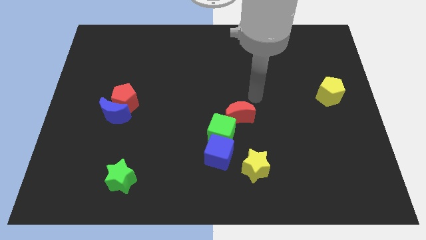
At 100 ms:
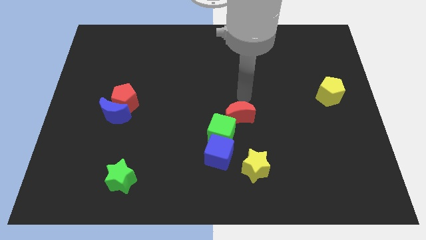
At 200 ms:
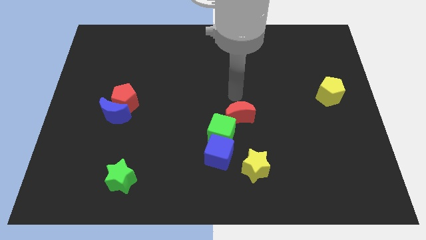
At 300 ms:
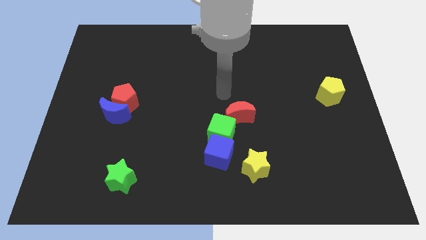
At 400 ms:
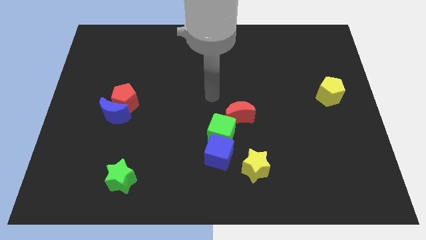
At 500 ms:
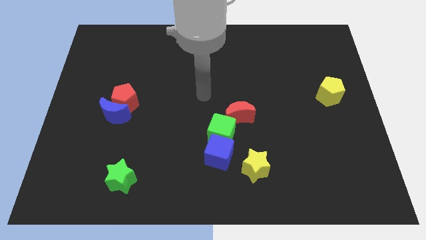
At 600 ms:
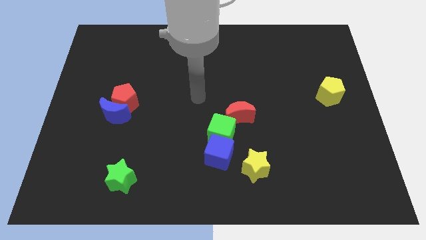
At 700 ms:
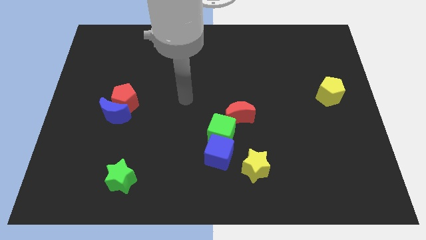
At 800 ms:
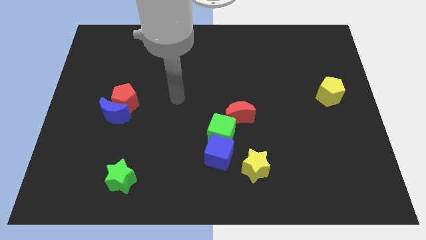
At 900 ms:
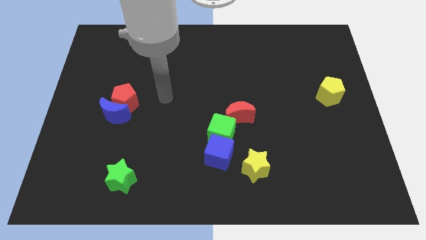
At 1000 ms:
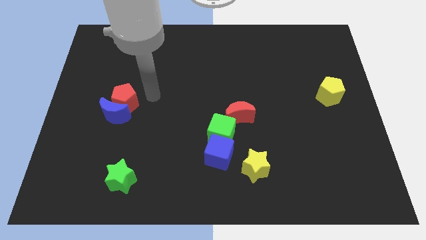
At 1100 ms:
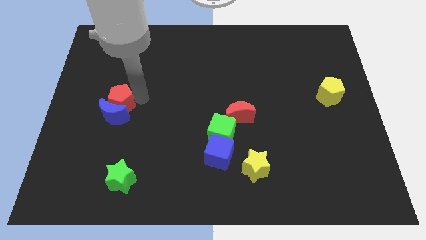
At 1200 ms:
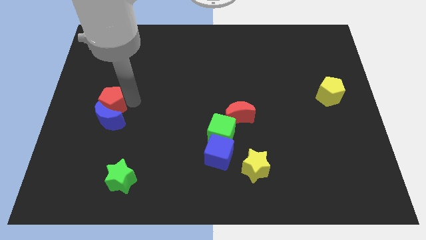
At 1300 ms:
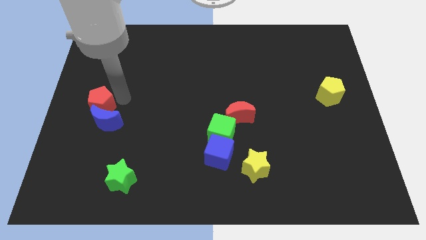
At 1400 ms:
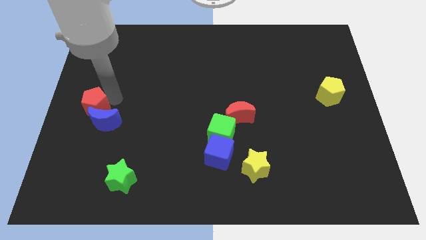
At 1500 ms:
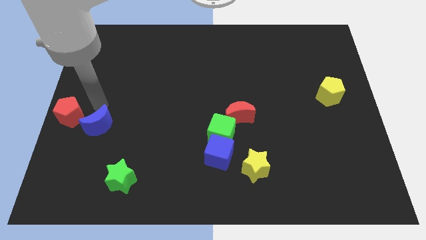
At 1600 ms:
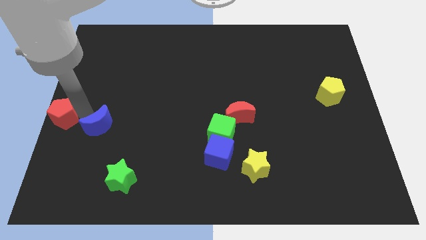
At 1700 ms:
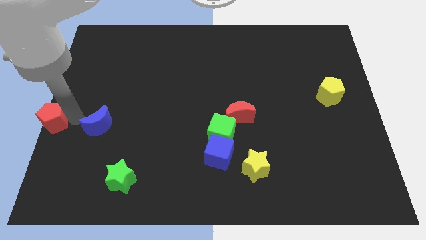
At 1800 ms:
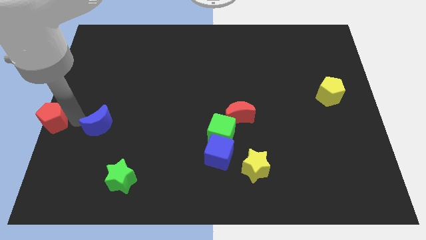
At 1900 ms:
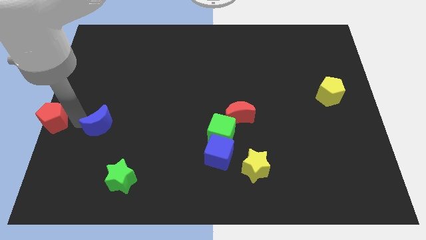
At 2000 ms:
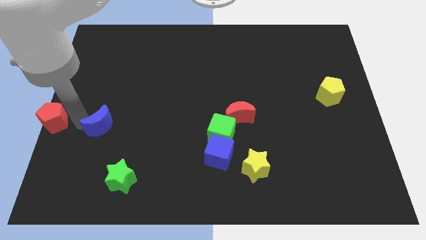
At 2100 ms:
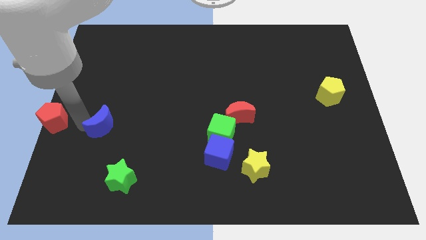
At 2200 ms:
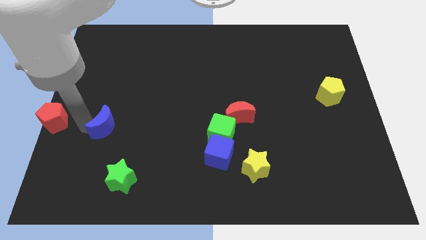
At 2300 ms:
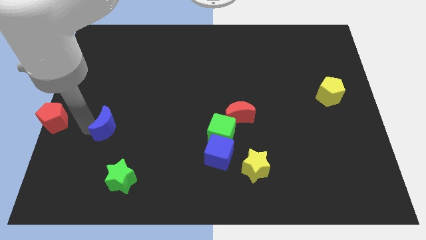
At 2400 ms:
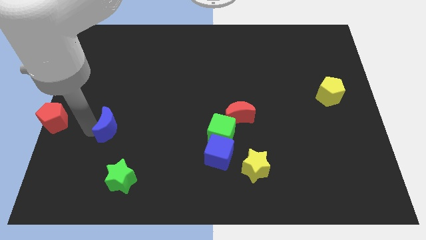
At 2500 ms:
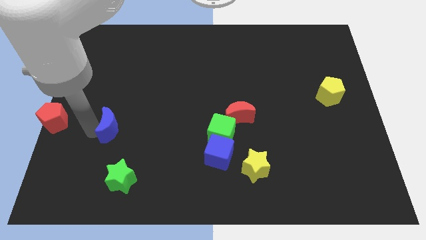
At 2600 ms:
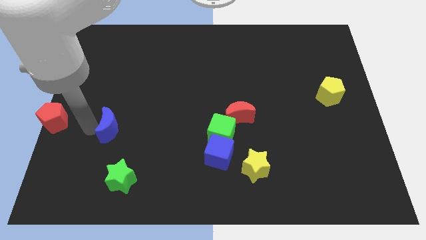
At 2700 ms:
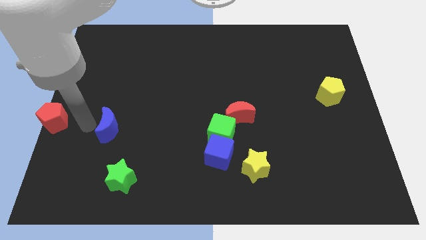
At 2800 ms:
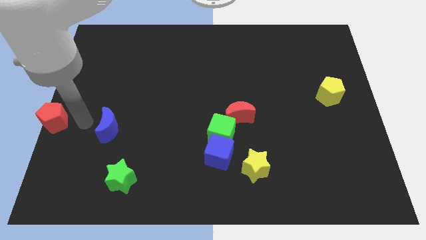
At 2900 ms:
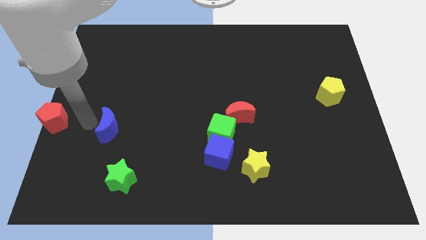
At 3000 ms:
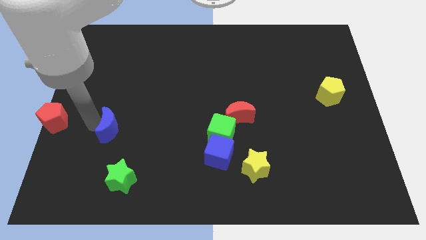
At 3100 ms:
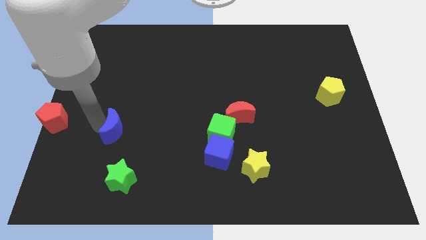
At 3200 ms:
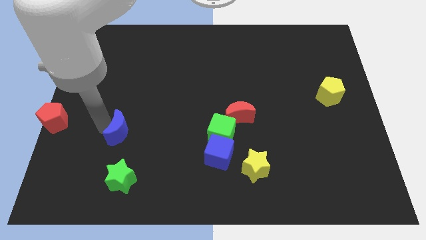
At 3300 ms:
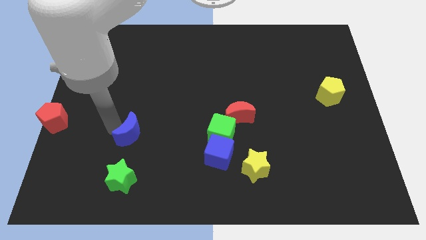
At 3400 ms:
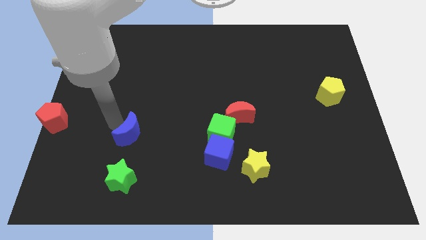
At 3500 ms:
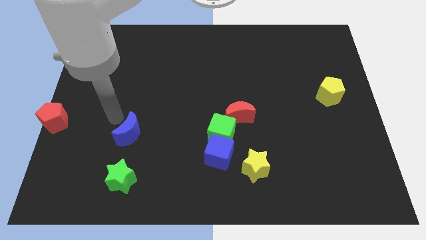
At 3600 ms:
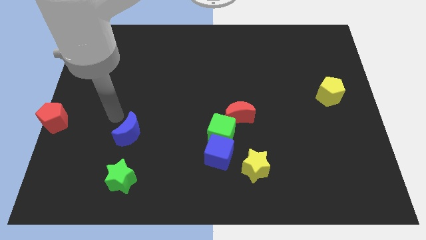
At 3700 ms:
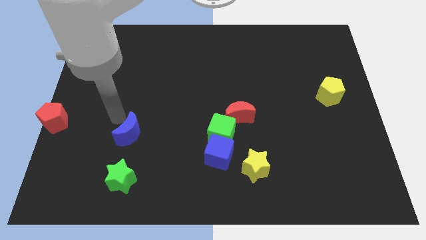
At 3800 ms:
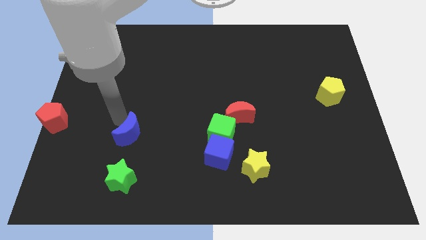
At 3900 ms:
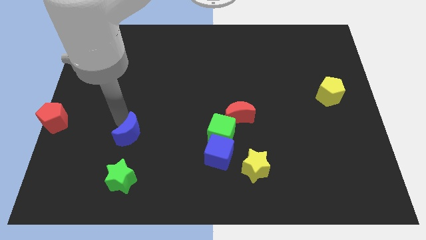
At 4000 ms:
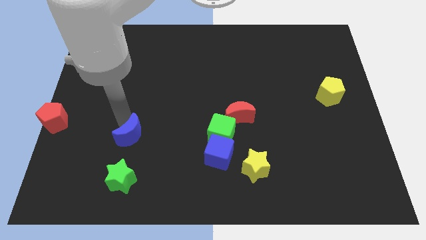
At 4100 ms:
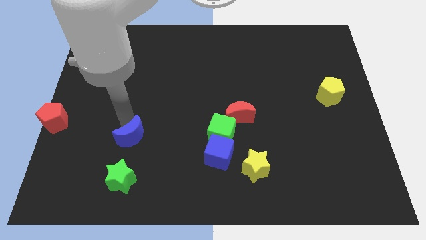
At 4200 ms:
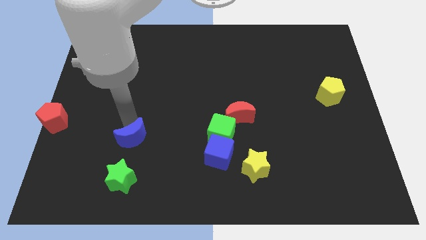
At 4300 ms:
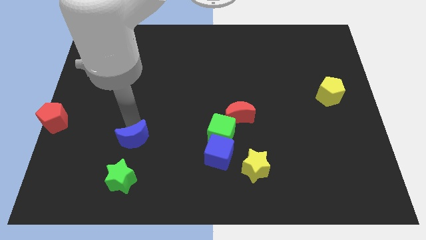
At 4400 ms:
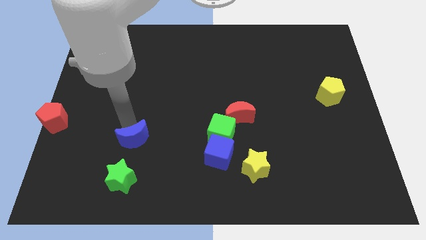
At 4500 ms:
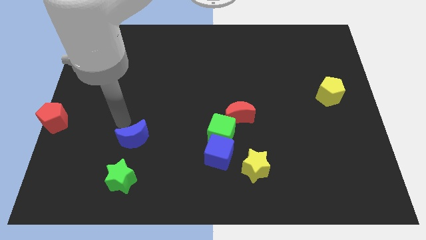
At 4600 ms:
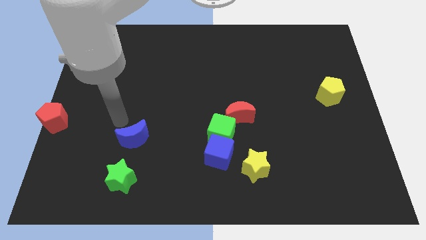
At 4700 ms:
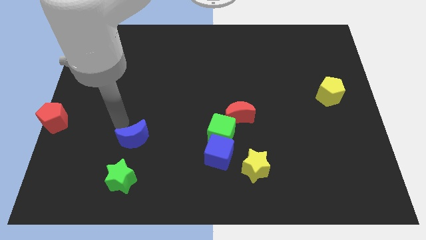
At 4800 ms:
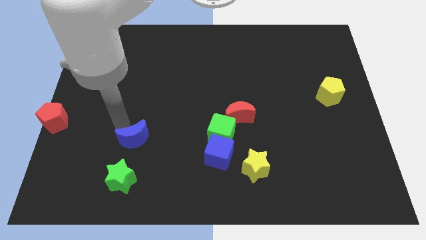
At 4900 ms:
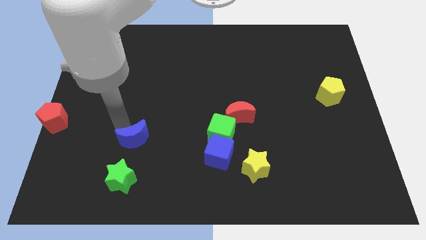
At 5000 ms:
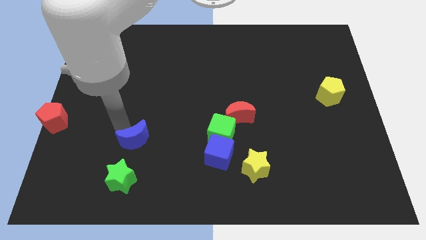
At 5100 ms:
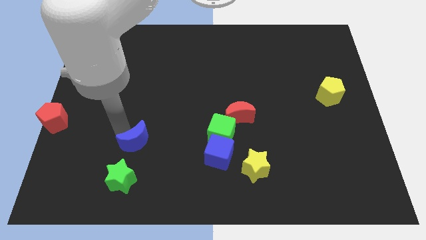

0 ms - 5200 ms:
slide the blue moon diagonally up and to the right of the green star

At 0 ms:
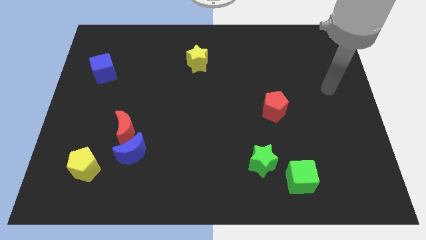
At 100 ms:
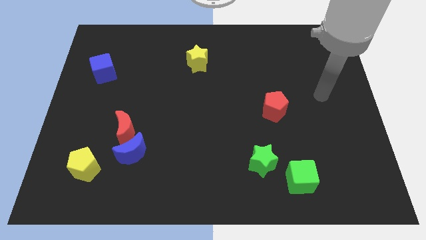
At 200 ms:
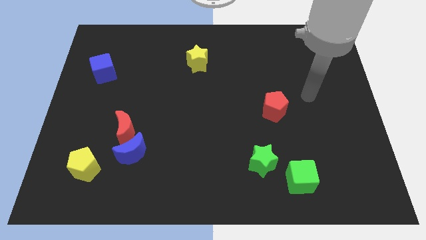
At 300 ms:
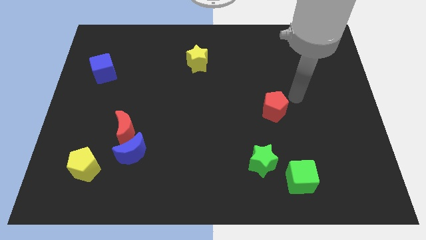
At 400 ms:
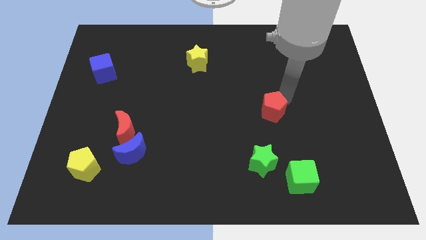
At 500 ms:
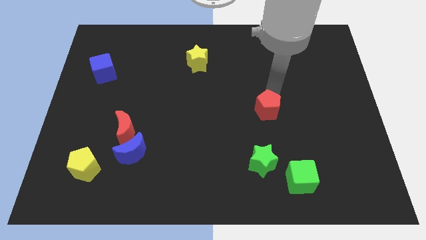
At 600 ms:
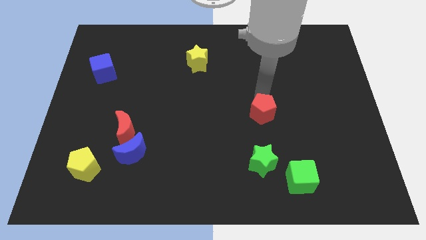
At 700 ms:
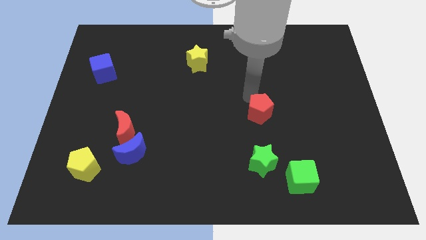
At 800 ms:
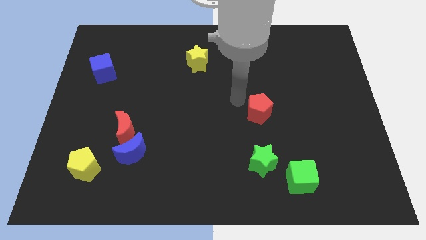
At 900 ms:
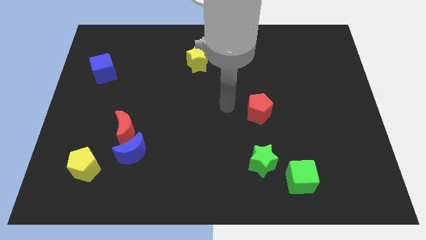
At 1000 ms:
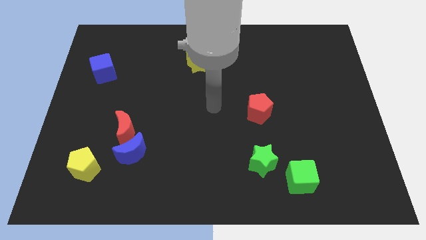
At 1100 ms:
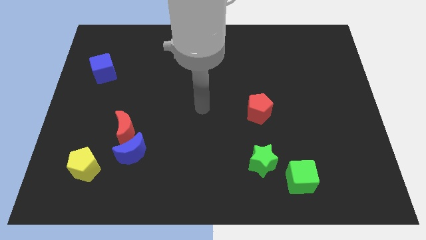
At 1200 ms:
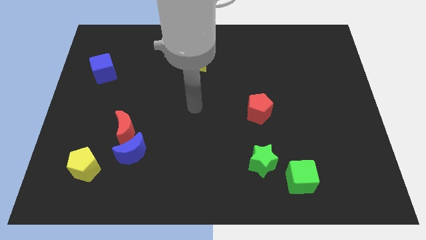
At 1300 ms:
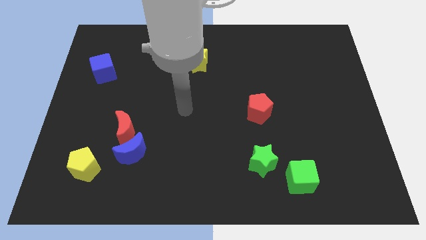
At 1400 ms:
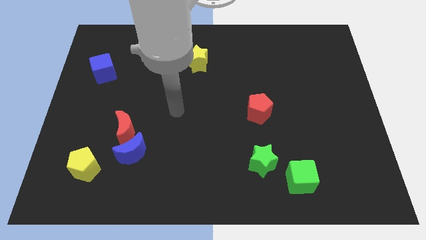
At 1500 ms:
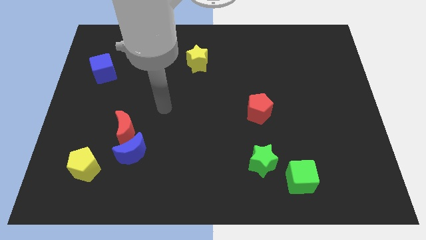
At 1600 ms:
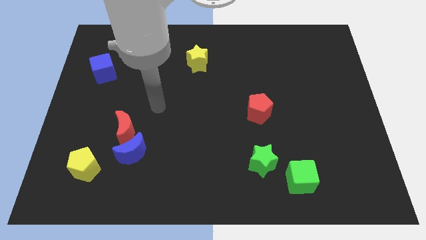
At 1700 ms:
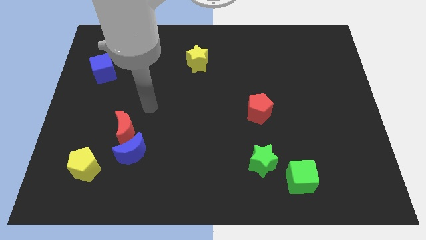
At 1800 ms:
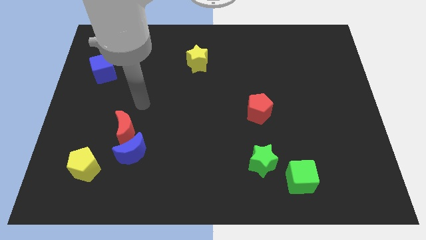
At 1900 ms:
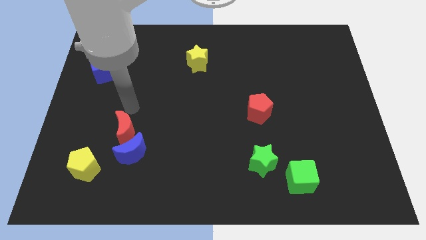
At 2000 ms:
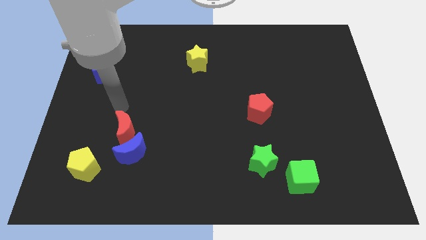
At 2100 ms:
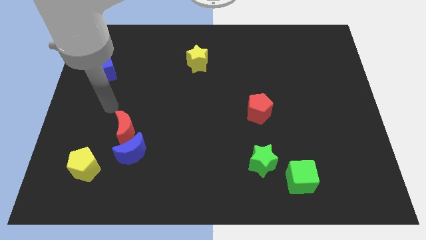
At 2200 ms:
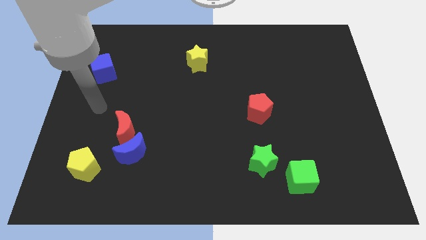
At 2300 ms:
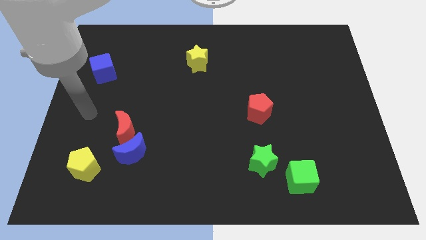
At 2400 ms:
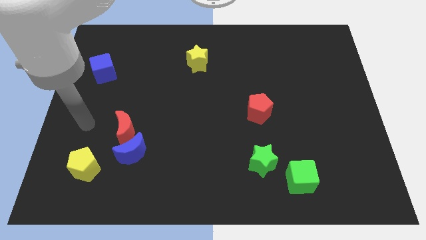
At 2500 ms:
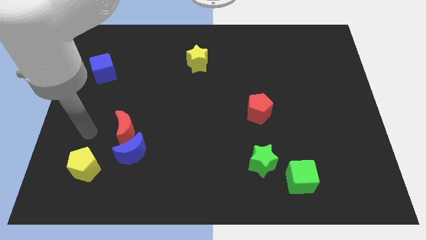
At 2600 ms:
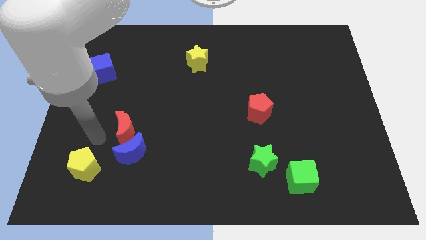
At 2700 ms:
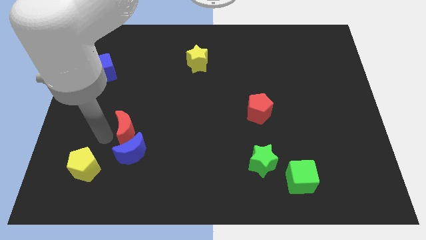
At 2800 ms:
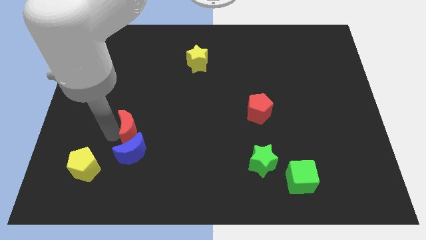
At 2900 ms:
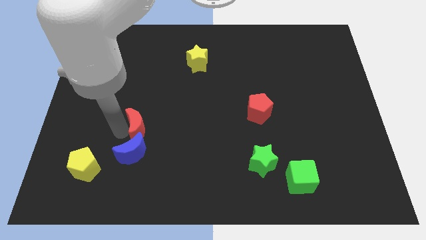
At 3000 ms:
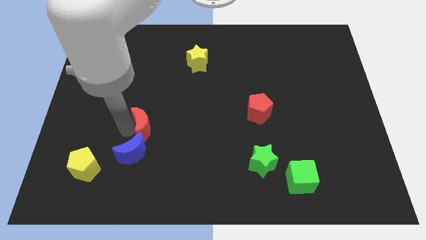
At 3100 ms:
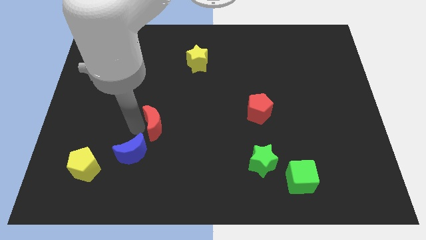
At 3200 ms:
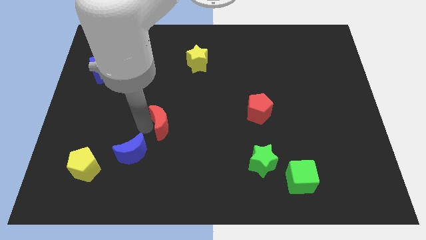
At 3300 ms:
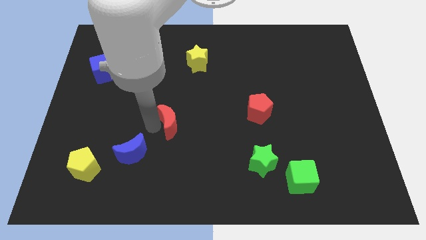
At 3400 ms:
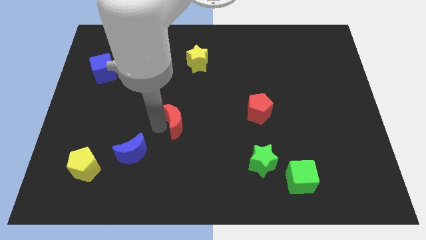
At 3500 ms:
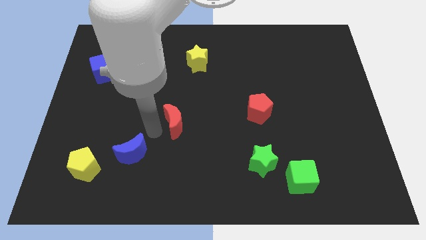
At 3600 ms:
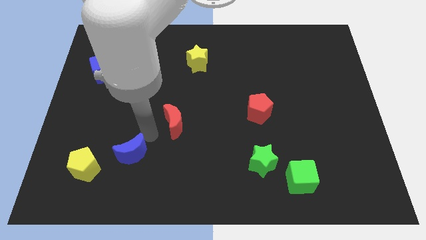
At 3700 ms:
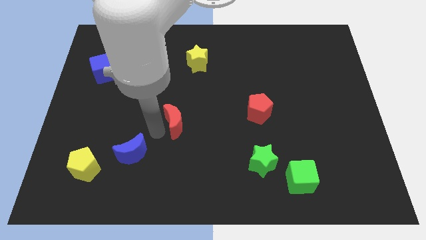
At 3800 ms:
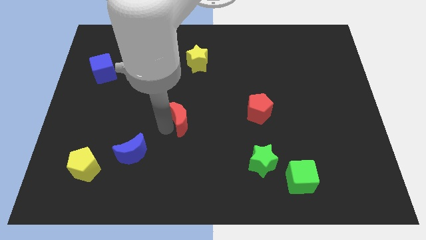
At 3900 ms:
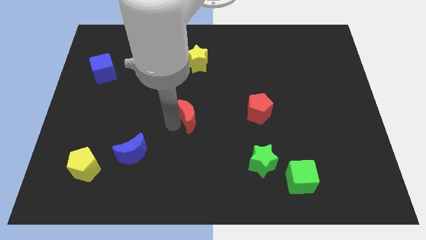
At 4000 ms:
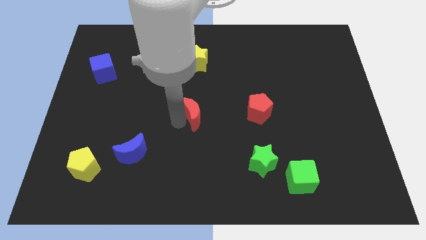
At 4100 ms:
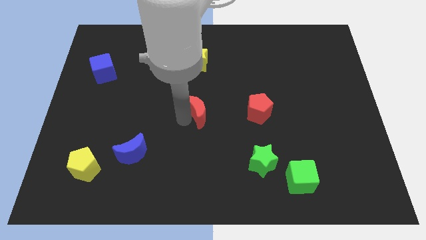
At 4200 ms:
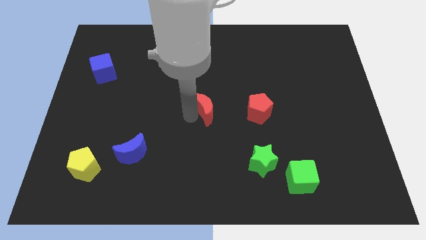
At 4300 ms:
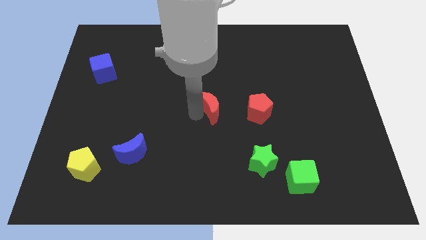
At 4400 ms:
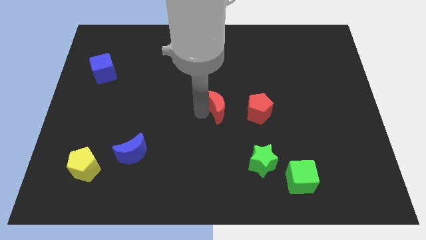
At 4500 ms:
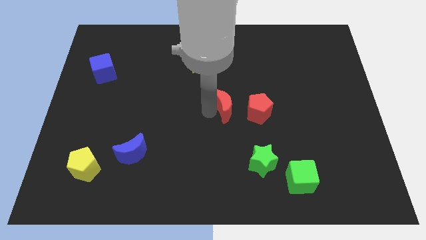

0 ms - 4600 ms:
slide the red moon to the top left of the red pentagon
